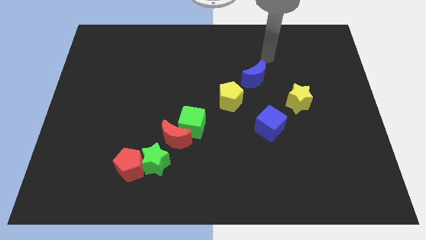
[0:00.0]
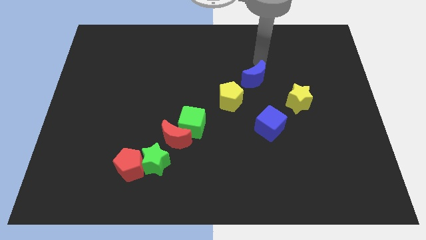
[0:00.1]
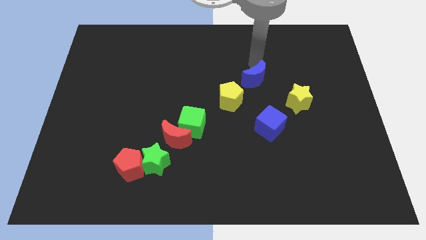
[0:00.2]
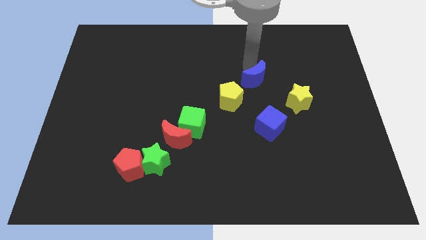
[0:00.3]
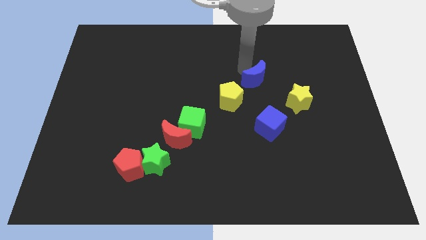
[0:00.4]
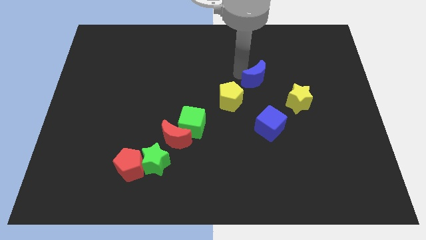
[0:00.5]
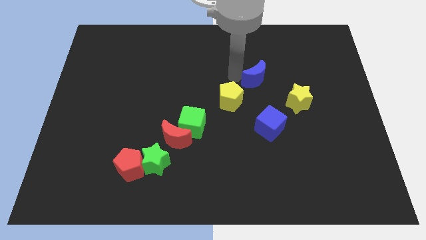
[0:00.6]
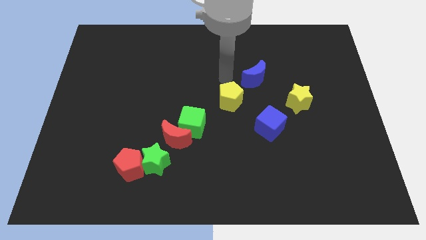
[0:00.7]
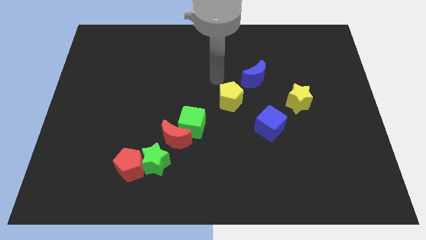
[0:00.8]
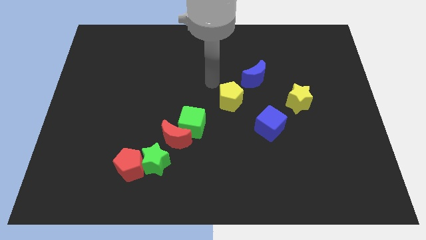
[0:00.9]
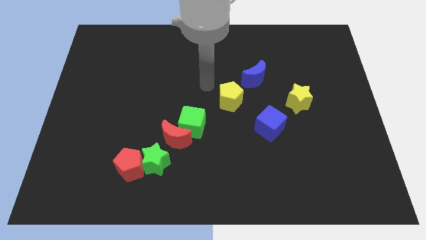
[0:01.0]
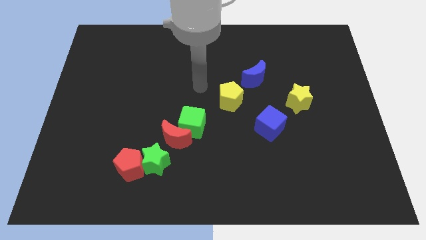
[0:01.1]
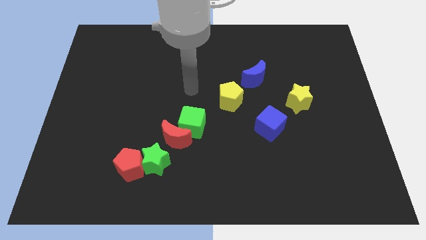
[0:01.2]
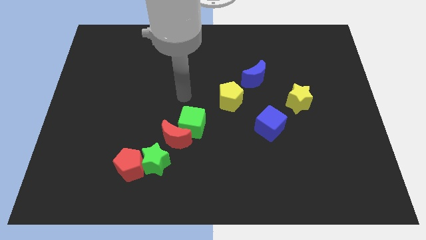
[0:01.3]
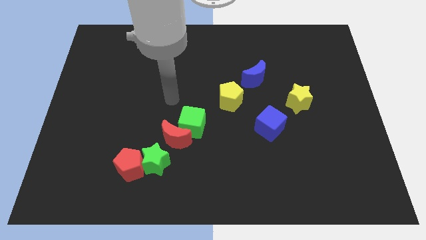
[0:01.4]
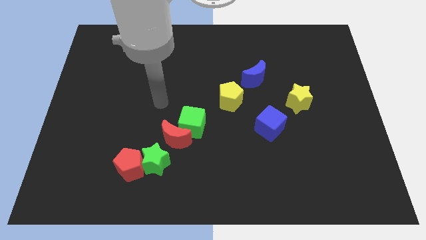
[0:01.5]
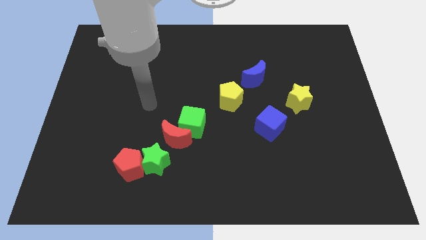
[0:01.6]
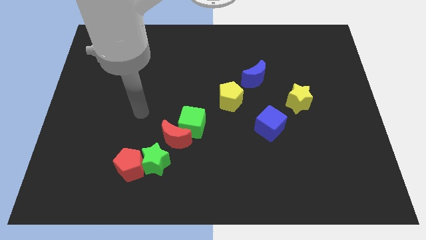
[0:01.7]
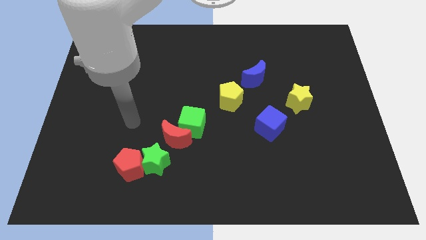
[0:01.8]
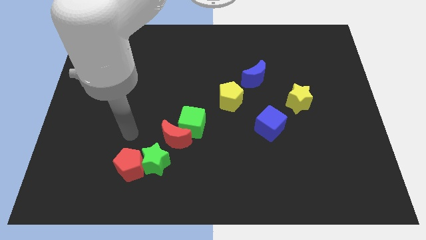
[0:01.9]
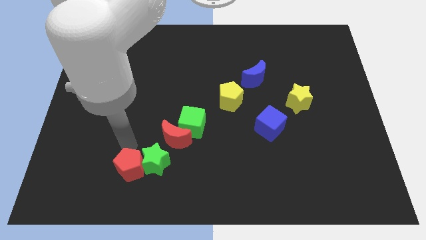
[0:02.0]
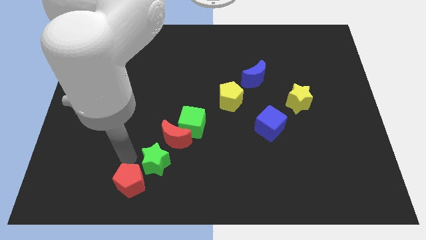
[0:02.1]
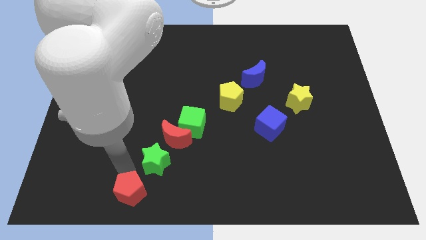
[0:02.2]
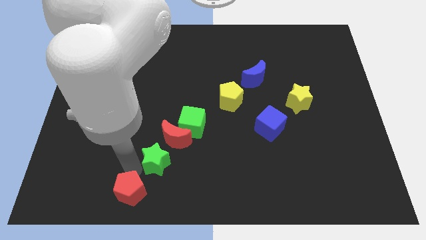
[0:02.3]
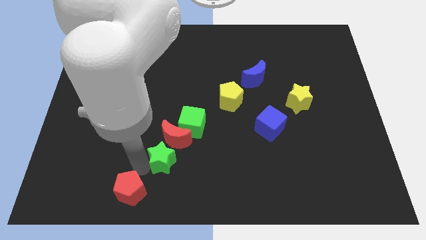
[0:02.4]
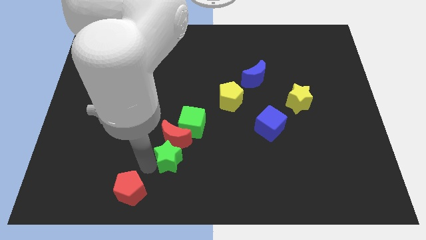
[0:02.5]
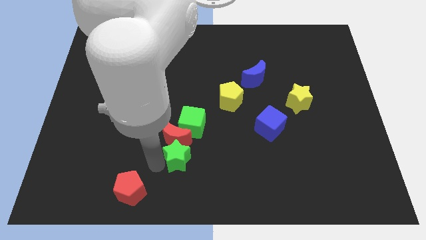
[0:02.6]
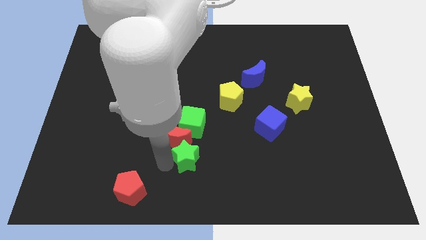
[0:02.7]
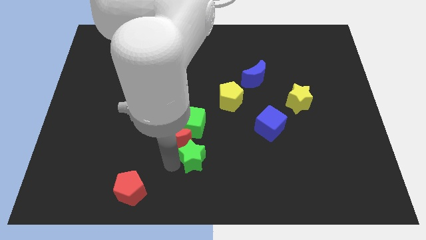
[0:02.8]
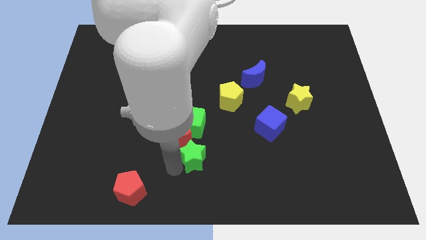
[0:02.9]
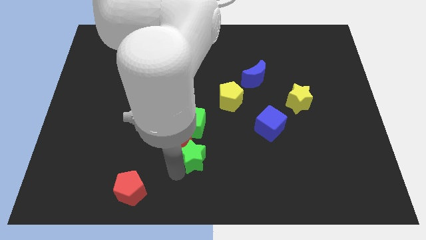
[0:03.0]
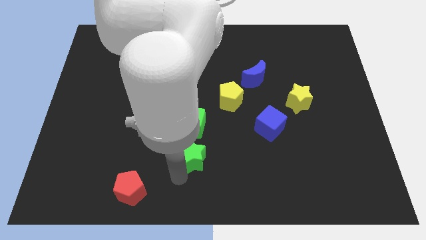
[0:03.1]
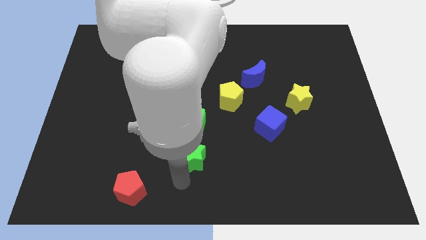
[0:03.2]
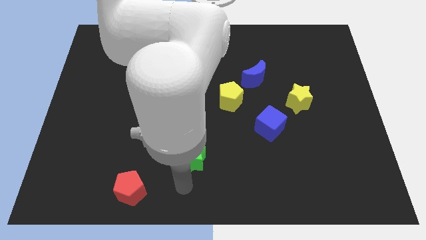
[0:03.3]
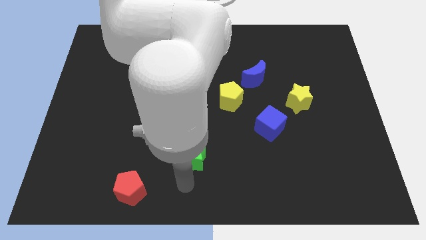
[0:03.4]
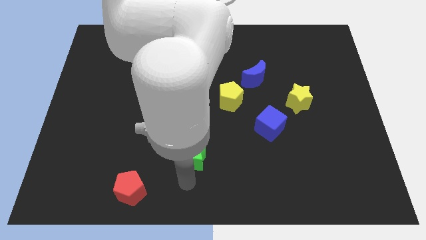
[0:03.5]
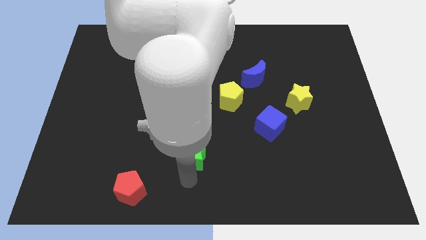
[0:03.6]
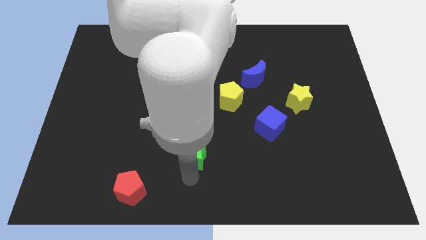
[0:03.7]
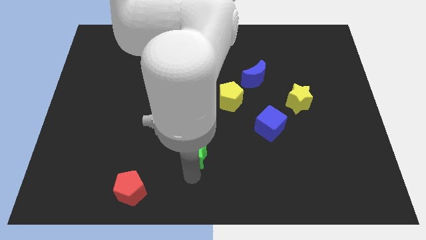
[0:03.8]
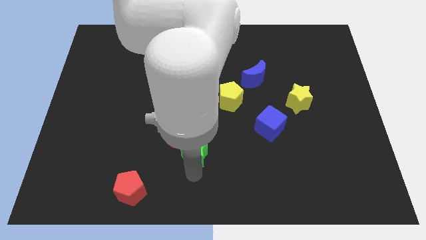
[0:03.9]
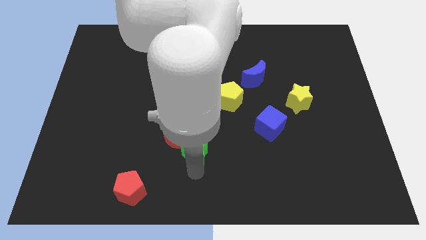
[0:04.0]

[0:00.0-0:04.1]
slightly push the green star up and to the right diagonally

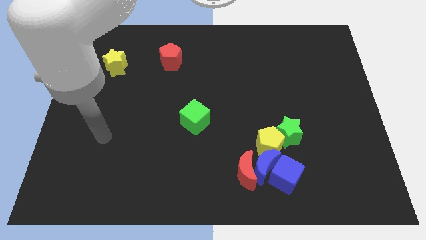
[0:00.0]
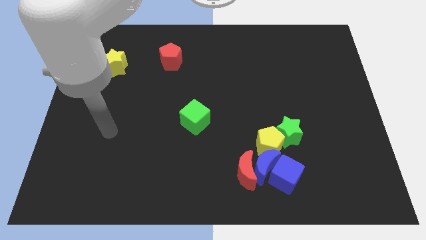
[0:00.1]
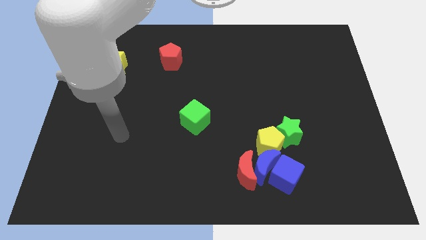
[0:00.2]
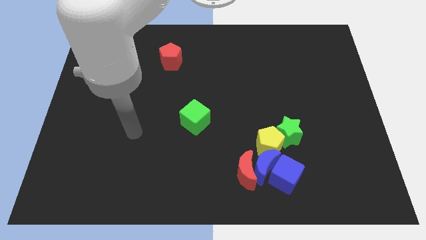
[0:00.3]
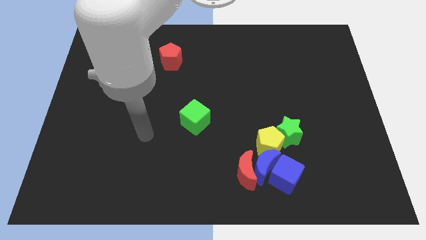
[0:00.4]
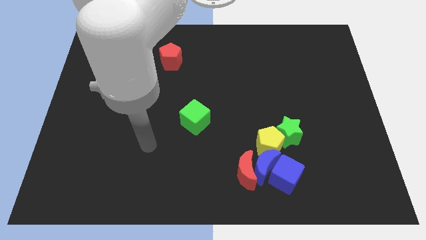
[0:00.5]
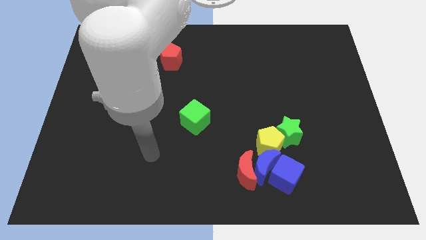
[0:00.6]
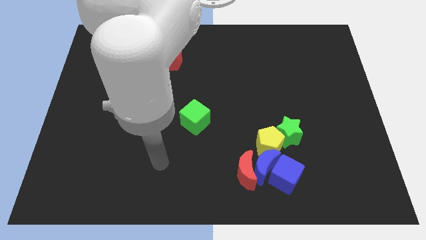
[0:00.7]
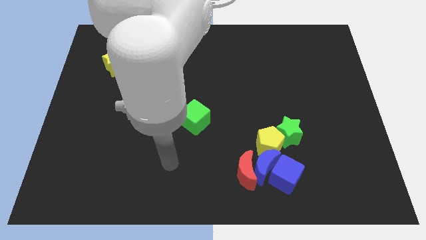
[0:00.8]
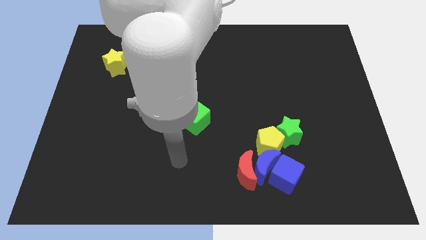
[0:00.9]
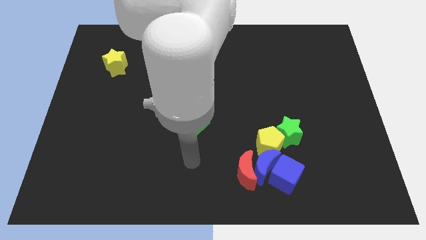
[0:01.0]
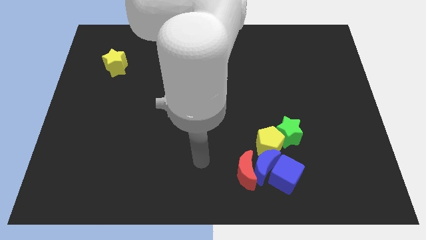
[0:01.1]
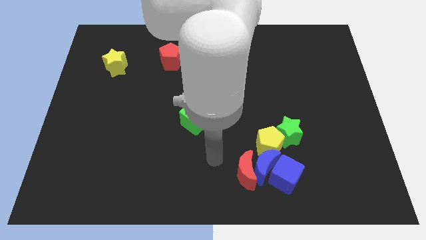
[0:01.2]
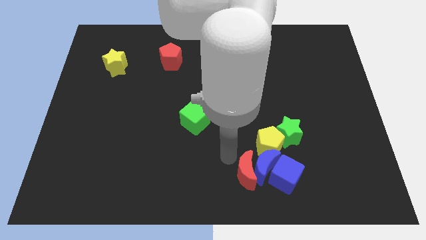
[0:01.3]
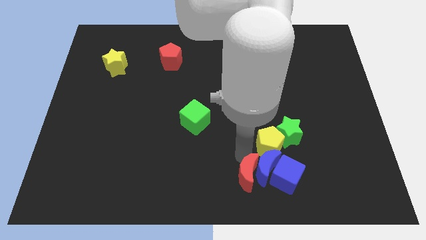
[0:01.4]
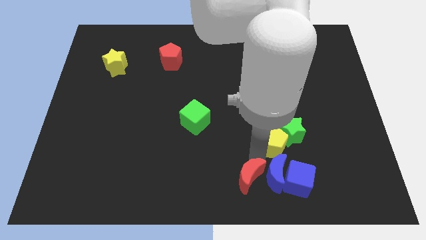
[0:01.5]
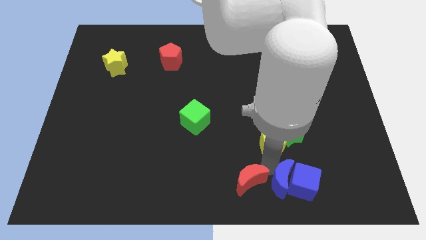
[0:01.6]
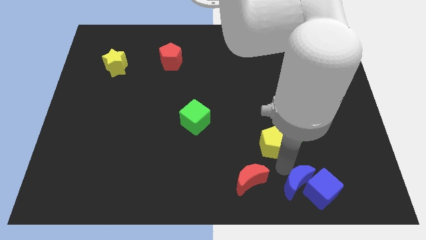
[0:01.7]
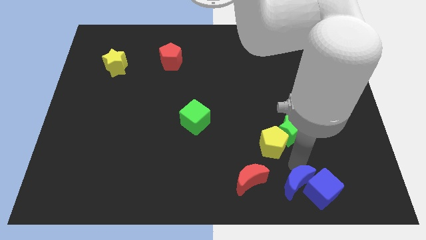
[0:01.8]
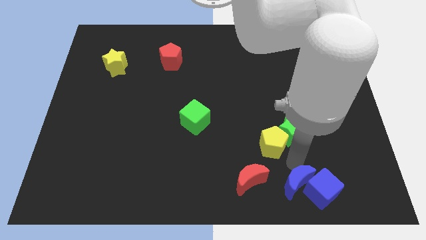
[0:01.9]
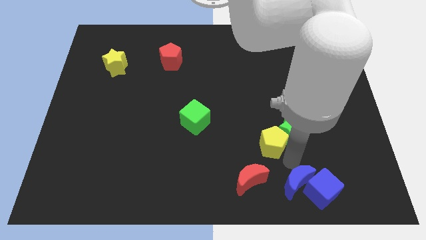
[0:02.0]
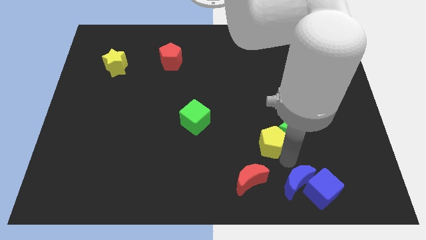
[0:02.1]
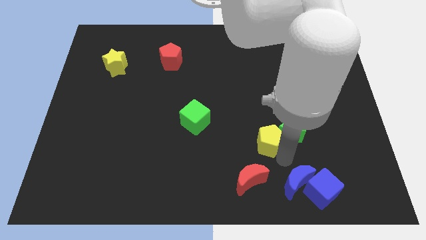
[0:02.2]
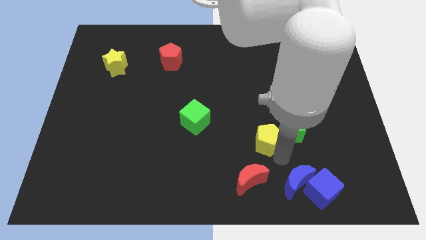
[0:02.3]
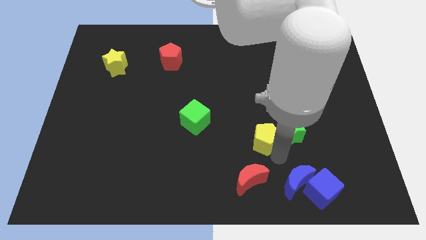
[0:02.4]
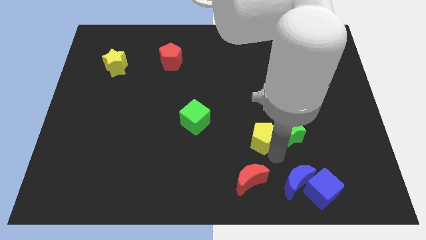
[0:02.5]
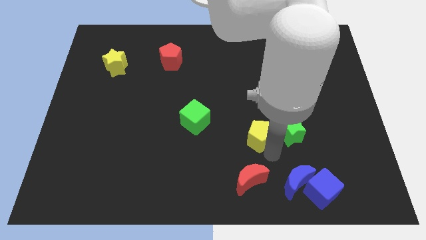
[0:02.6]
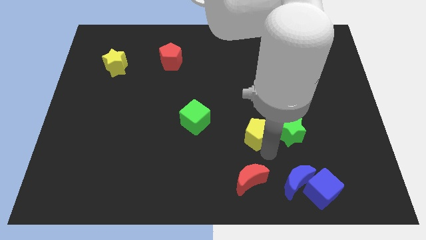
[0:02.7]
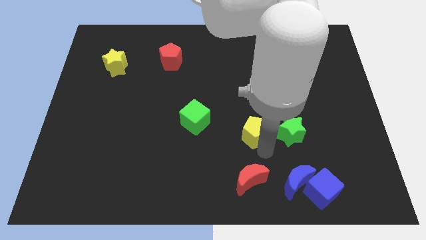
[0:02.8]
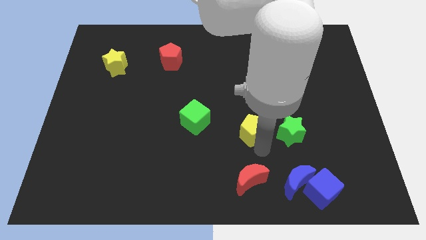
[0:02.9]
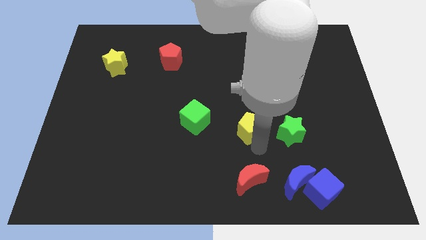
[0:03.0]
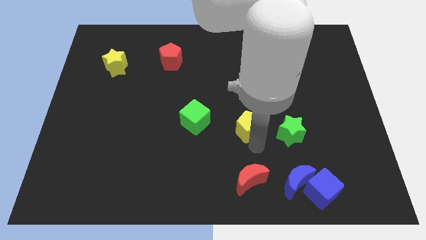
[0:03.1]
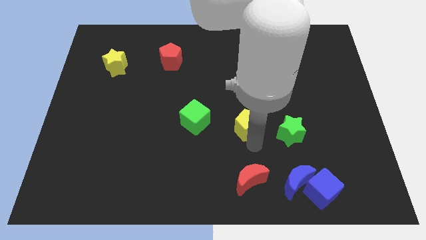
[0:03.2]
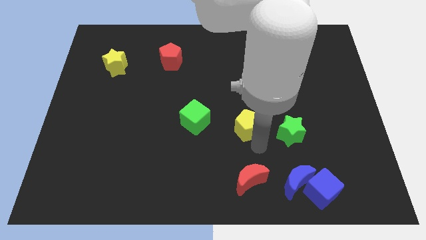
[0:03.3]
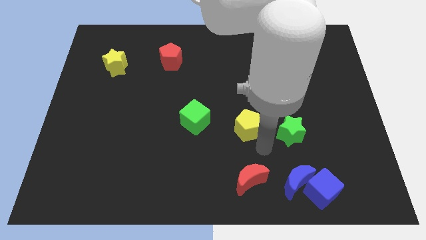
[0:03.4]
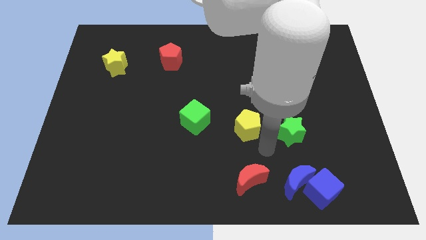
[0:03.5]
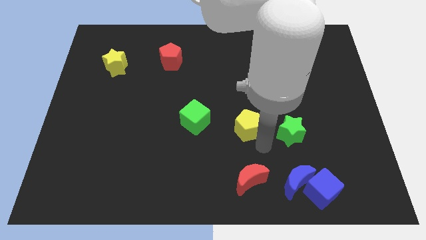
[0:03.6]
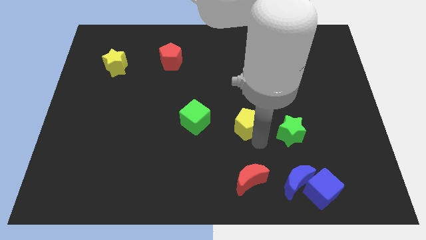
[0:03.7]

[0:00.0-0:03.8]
slightly slide the yellow pentagon upwards and then left
